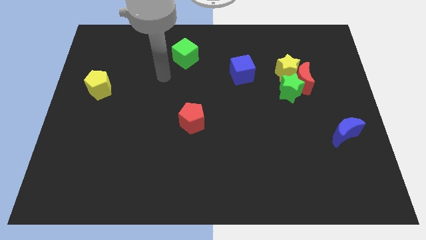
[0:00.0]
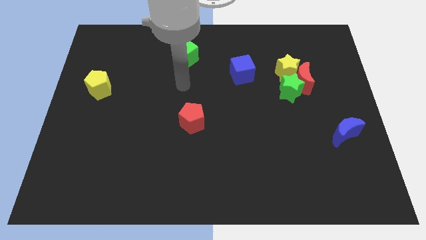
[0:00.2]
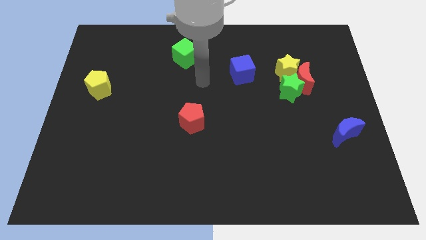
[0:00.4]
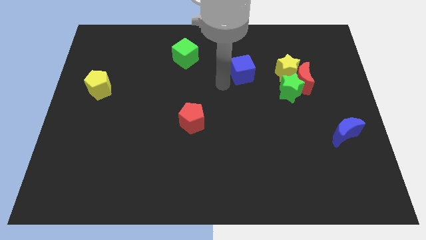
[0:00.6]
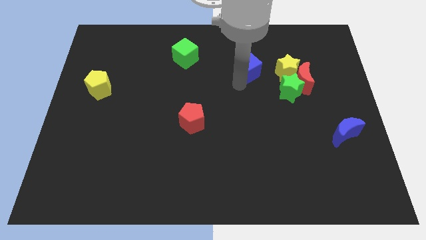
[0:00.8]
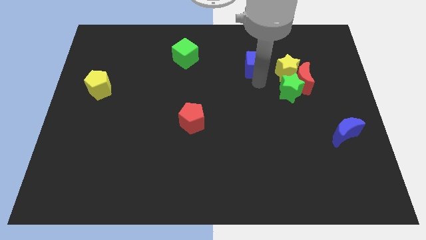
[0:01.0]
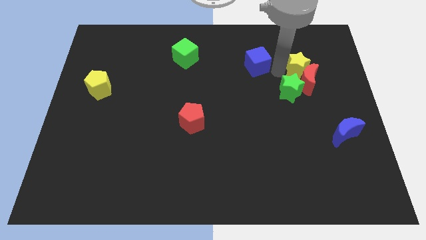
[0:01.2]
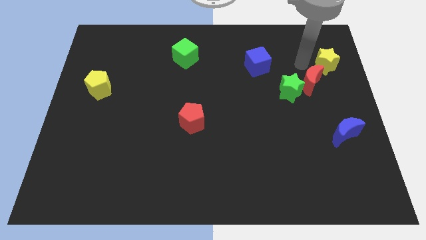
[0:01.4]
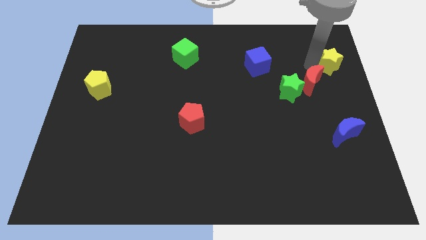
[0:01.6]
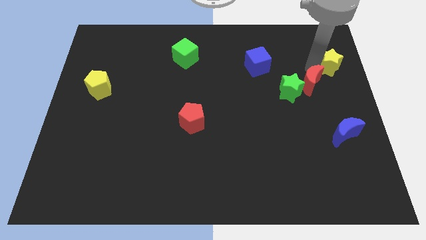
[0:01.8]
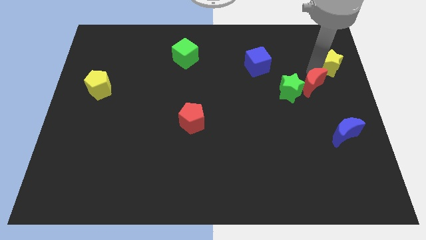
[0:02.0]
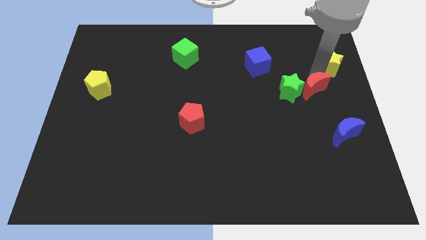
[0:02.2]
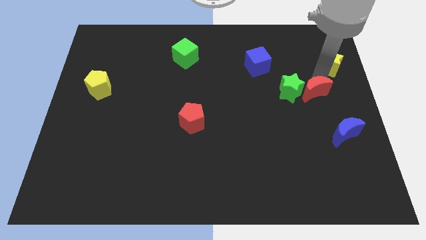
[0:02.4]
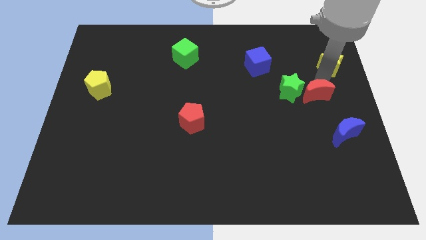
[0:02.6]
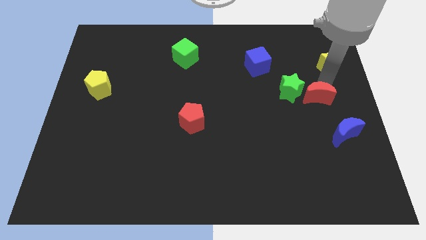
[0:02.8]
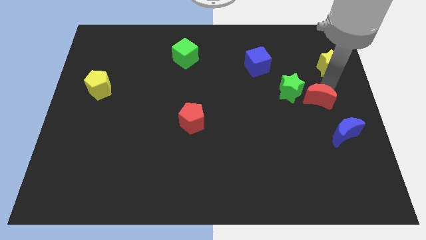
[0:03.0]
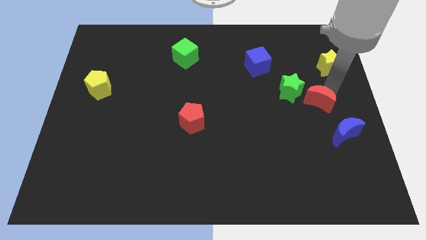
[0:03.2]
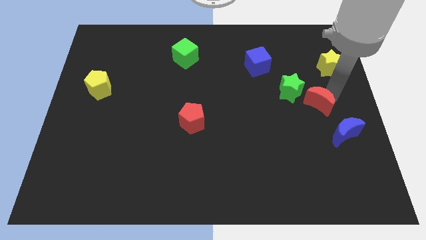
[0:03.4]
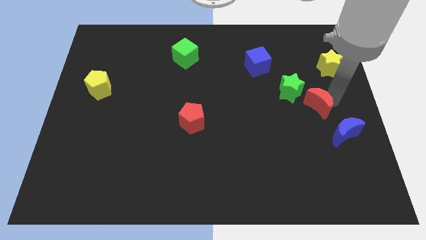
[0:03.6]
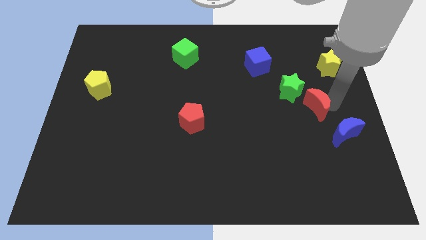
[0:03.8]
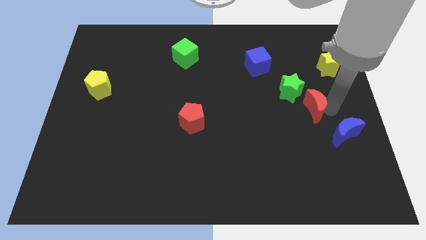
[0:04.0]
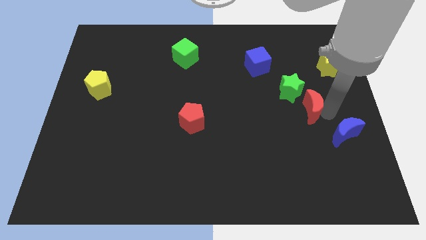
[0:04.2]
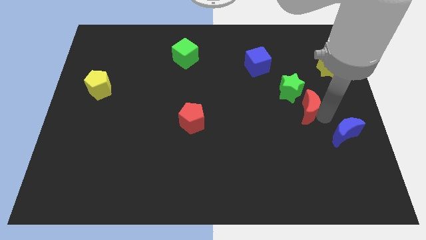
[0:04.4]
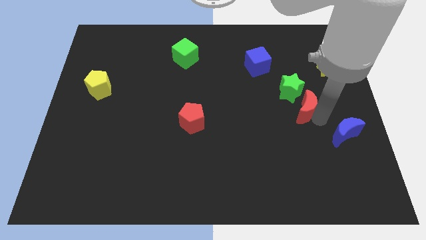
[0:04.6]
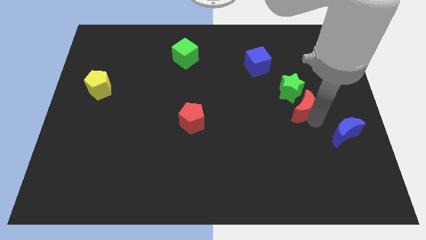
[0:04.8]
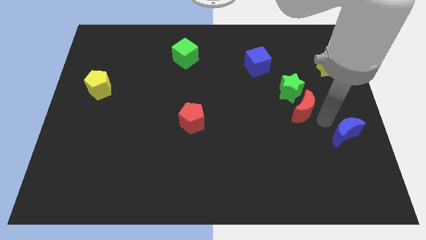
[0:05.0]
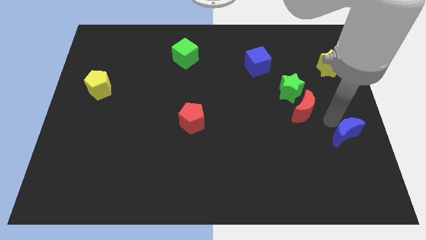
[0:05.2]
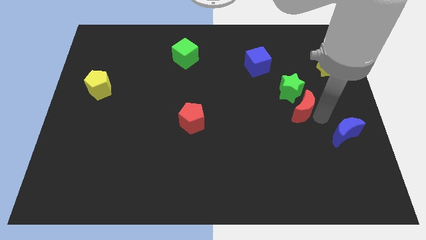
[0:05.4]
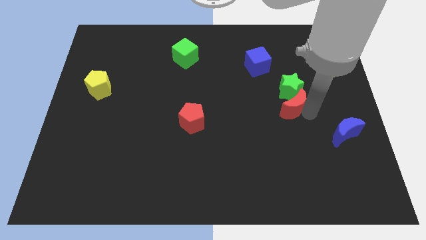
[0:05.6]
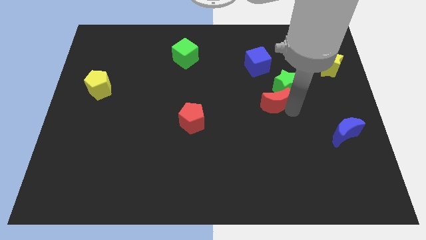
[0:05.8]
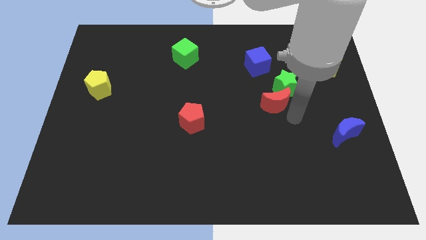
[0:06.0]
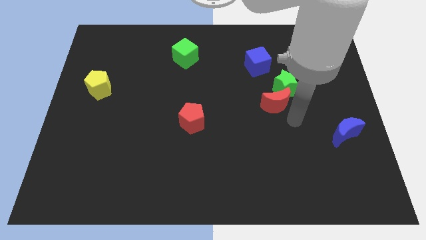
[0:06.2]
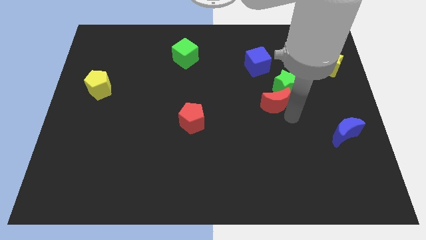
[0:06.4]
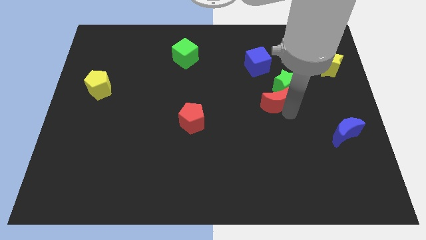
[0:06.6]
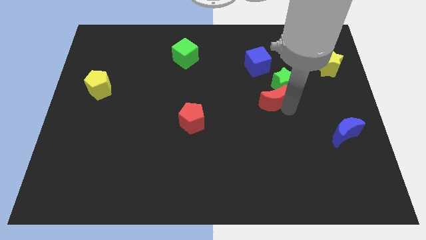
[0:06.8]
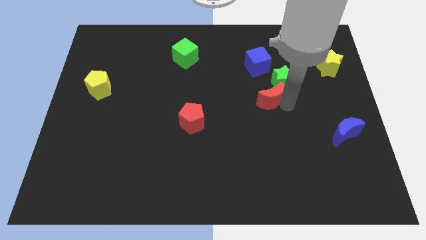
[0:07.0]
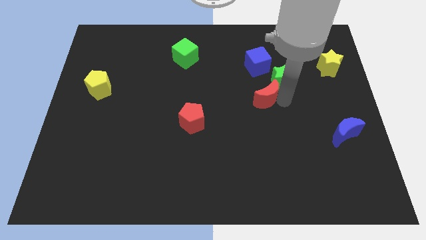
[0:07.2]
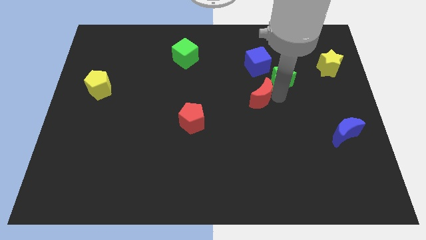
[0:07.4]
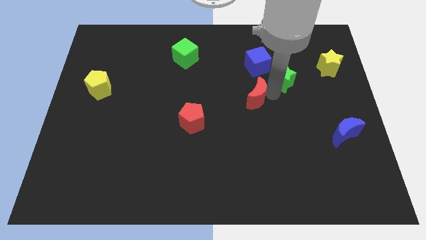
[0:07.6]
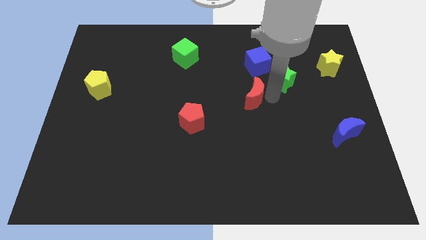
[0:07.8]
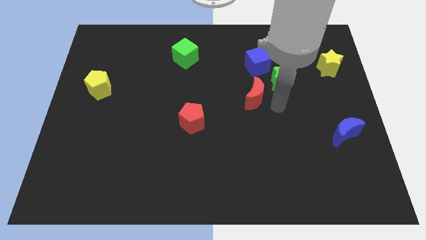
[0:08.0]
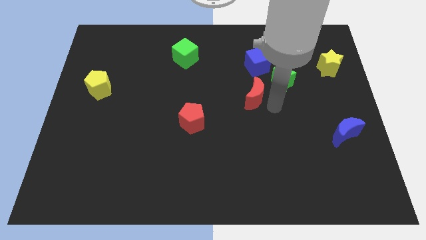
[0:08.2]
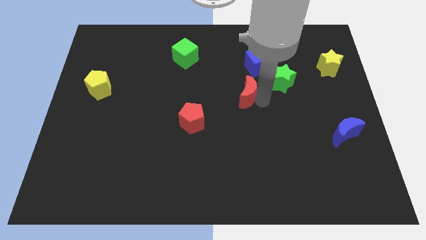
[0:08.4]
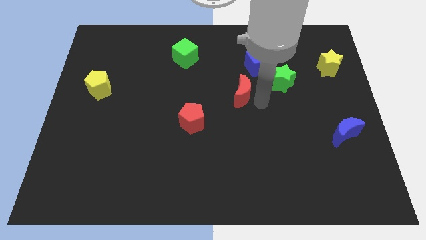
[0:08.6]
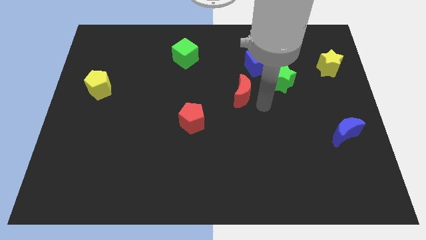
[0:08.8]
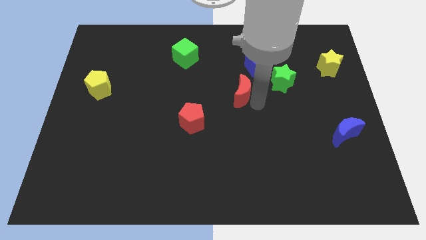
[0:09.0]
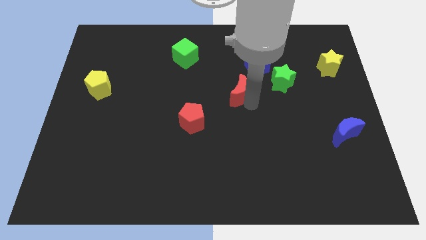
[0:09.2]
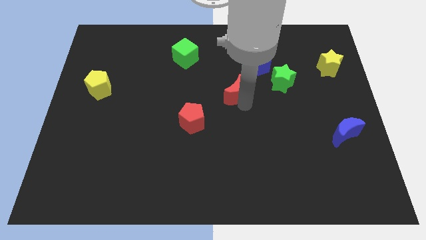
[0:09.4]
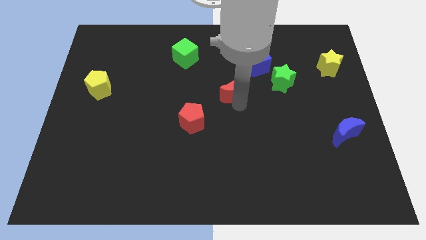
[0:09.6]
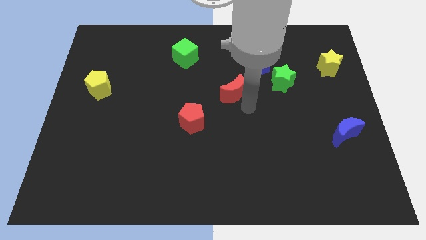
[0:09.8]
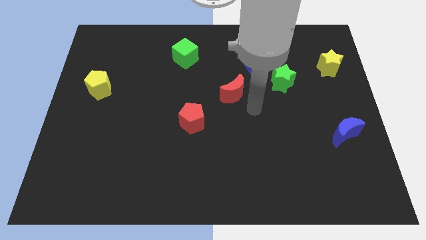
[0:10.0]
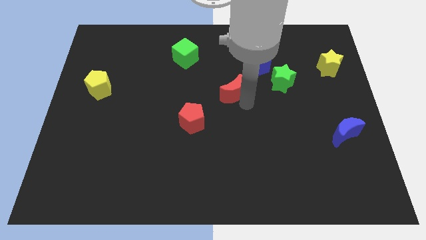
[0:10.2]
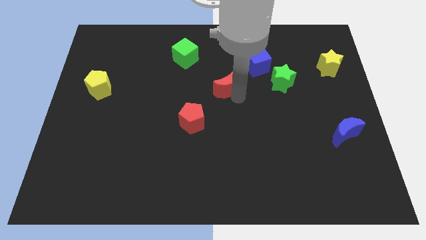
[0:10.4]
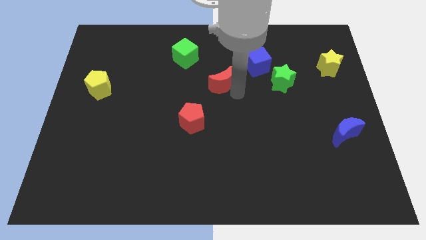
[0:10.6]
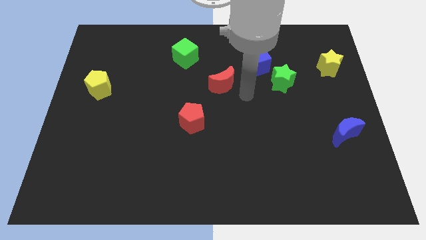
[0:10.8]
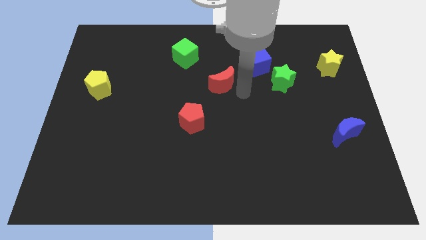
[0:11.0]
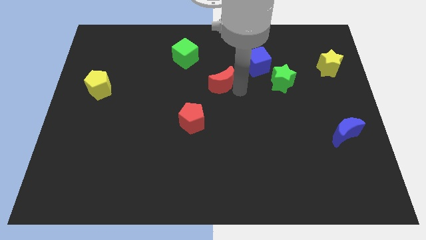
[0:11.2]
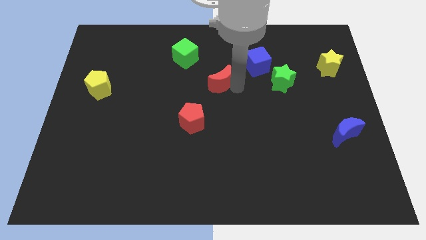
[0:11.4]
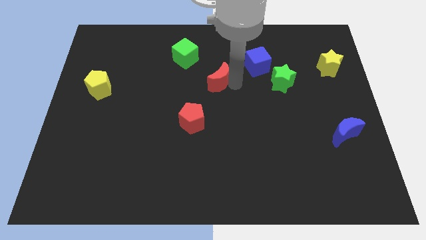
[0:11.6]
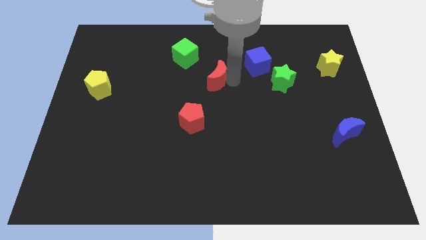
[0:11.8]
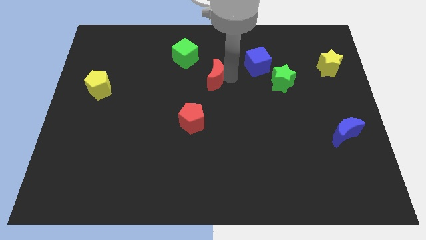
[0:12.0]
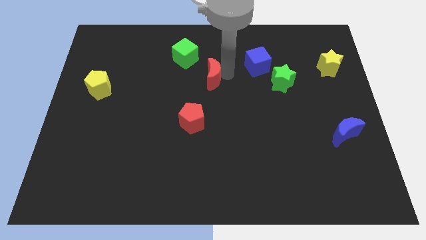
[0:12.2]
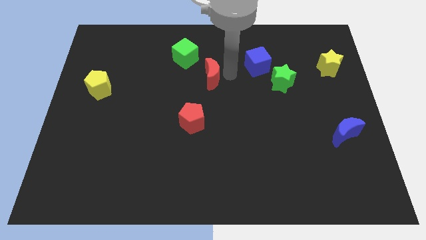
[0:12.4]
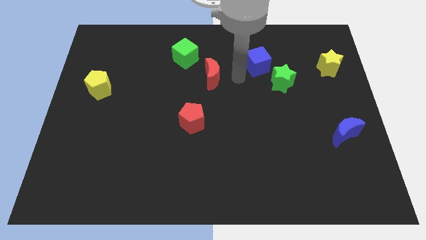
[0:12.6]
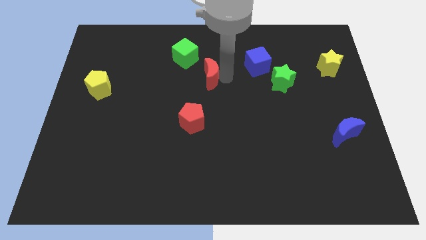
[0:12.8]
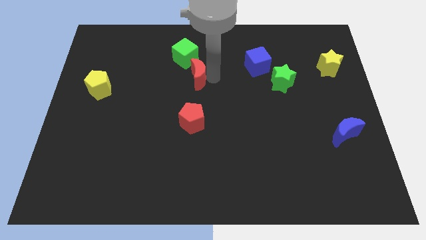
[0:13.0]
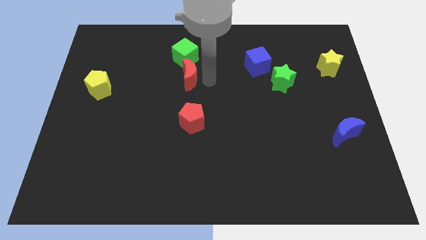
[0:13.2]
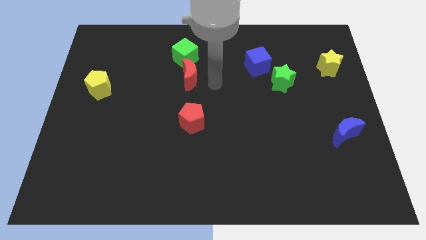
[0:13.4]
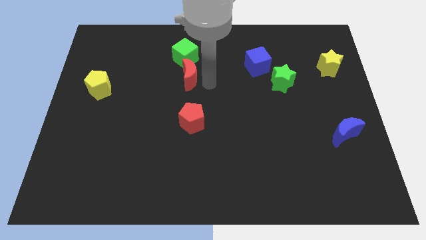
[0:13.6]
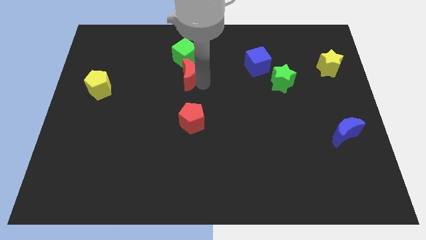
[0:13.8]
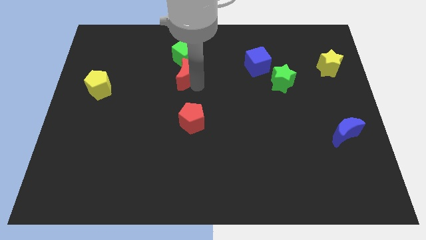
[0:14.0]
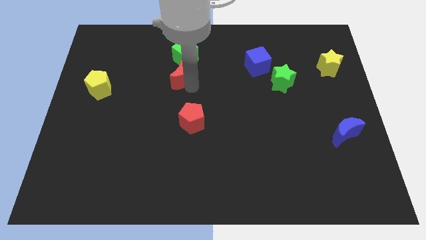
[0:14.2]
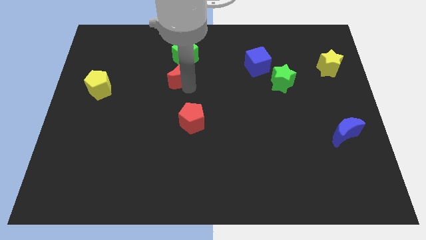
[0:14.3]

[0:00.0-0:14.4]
put the red moon to the bottom left of the green cube
